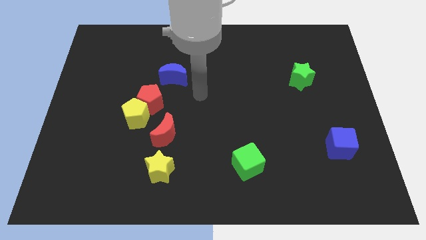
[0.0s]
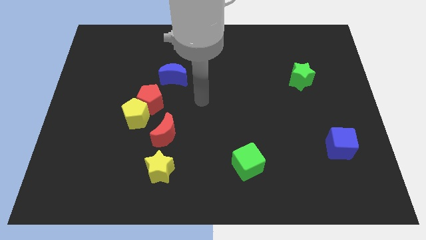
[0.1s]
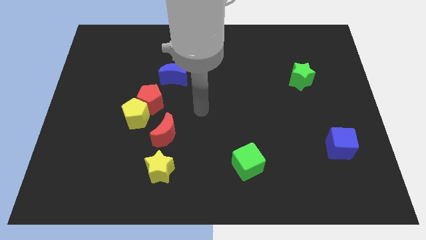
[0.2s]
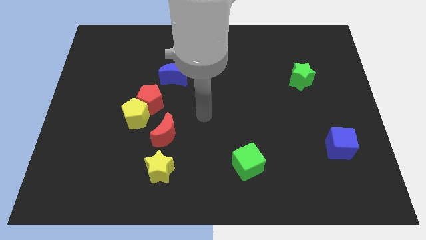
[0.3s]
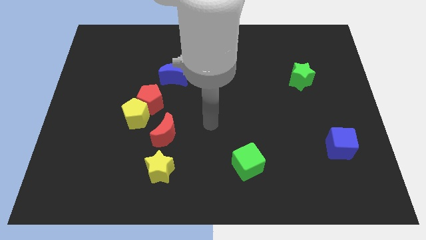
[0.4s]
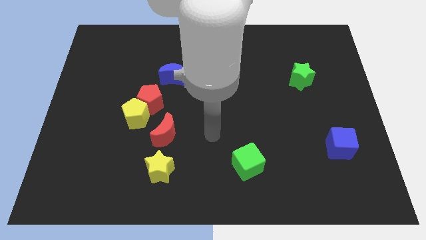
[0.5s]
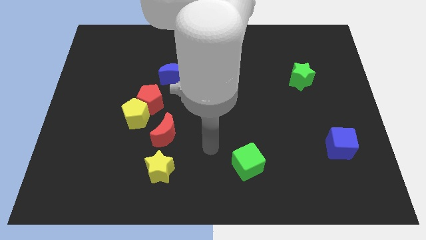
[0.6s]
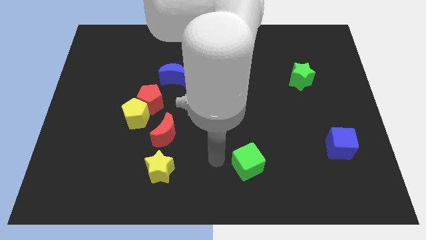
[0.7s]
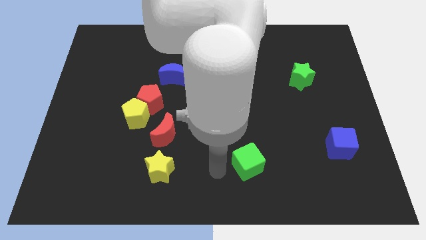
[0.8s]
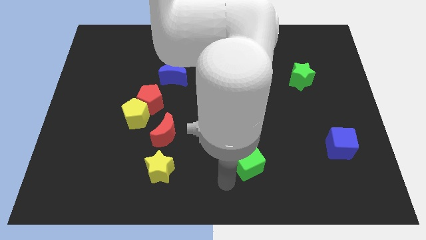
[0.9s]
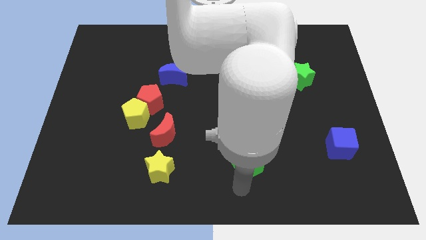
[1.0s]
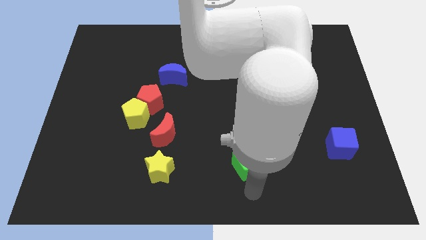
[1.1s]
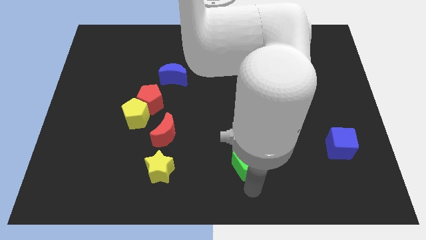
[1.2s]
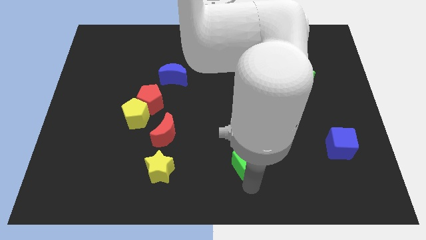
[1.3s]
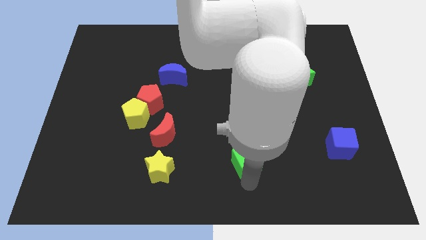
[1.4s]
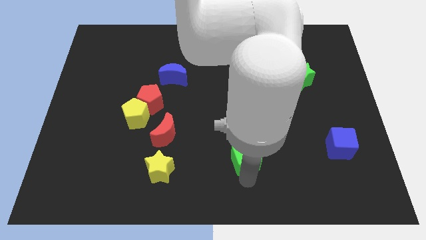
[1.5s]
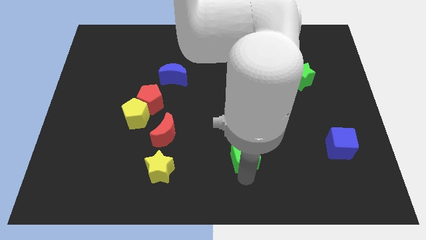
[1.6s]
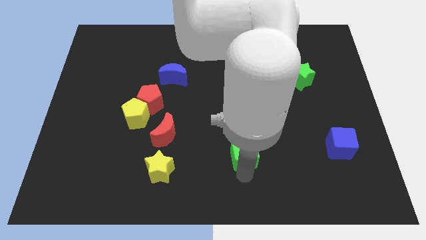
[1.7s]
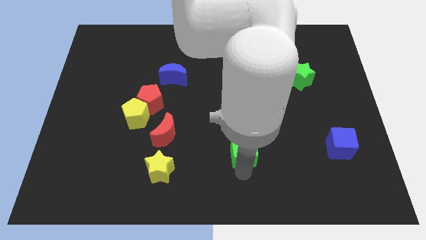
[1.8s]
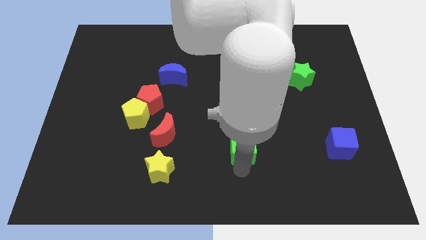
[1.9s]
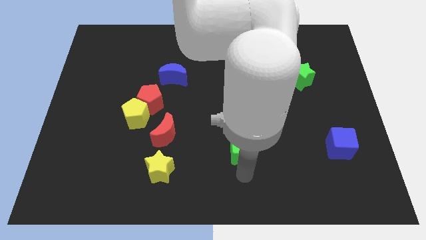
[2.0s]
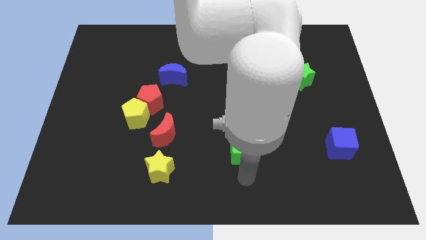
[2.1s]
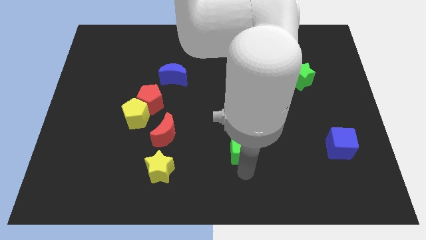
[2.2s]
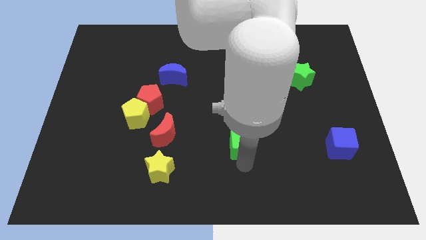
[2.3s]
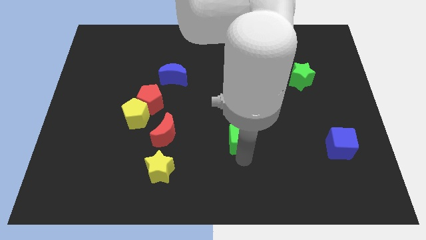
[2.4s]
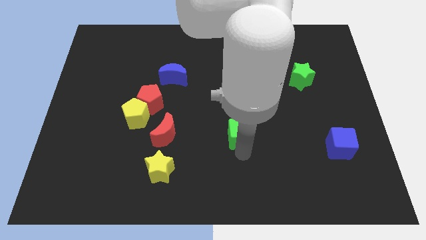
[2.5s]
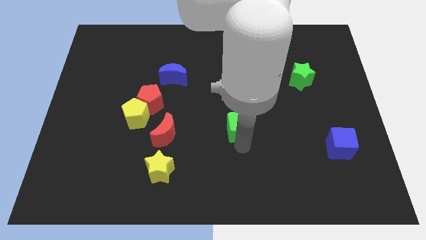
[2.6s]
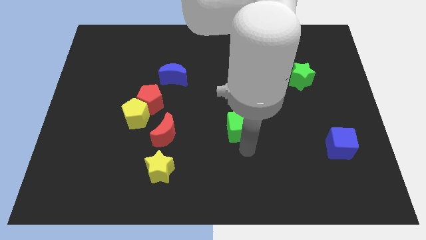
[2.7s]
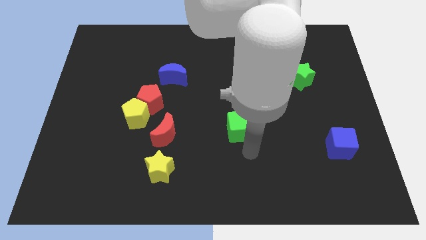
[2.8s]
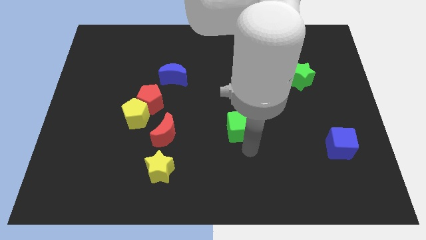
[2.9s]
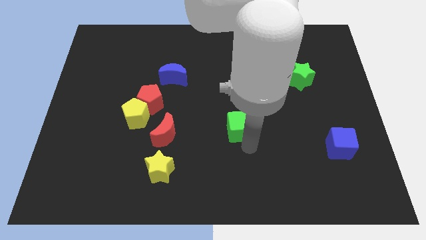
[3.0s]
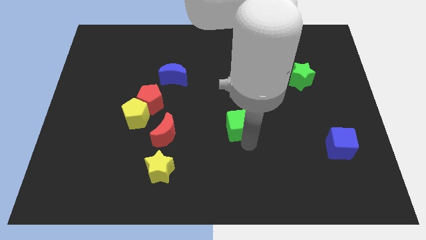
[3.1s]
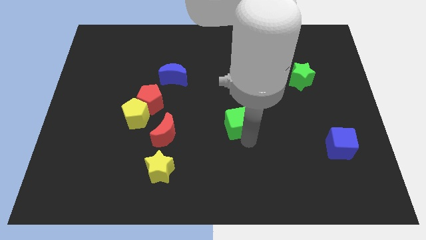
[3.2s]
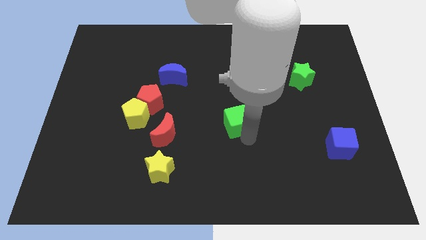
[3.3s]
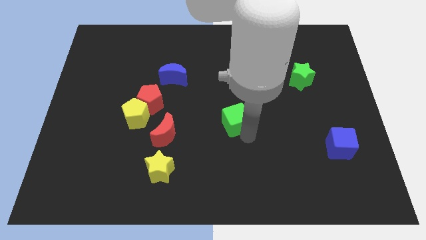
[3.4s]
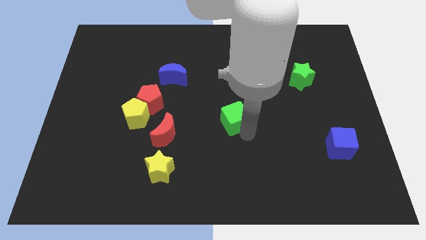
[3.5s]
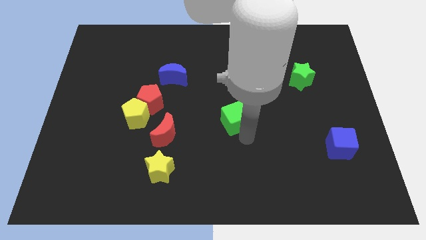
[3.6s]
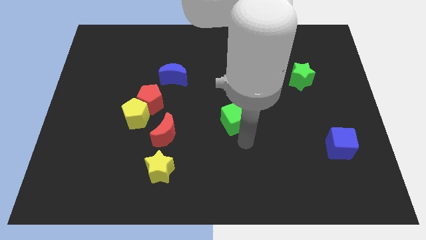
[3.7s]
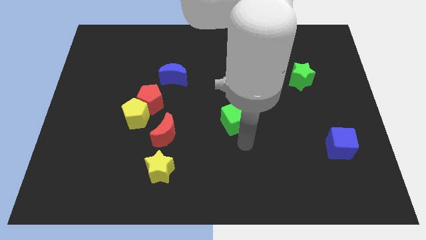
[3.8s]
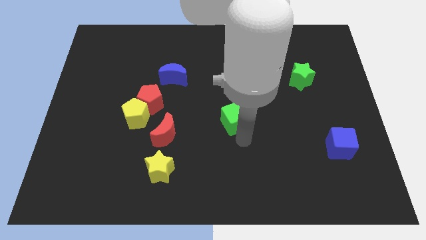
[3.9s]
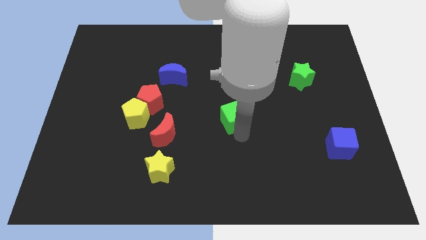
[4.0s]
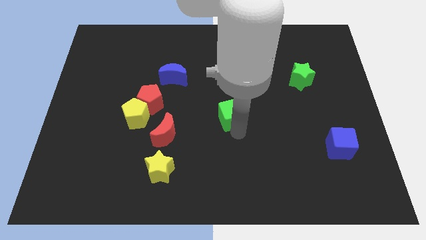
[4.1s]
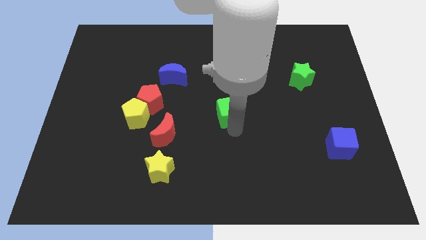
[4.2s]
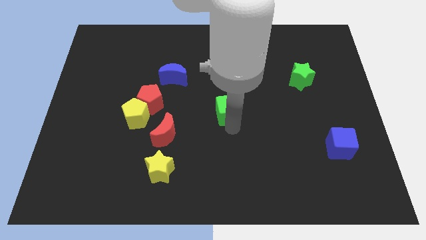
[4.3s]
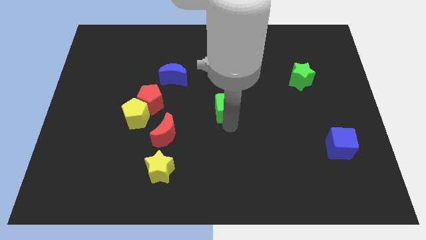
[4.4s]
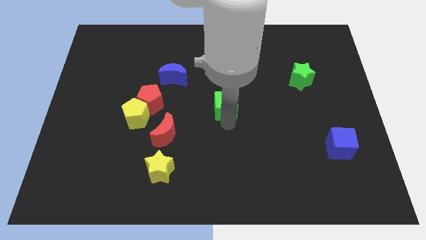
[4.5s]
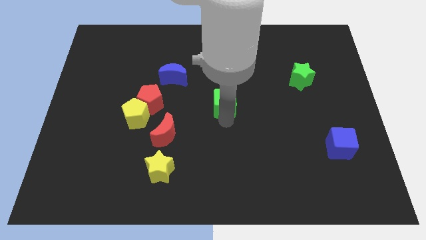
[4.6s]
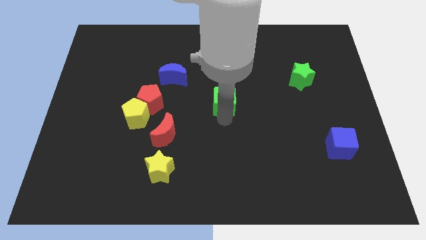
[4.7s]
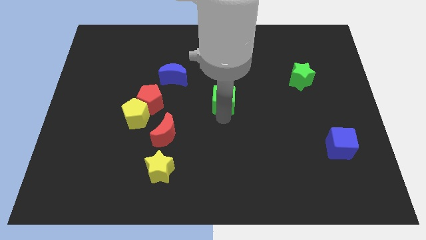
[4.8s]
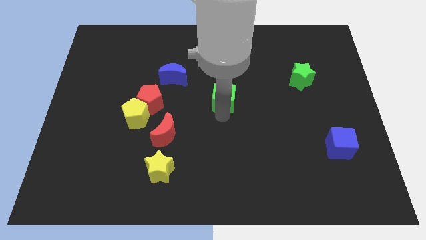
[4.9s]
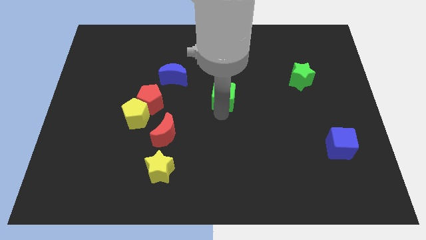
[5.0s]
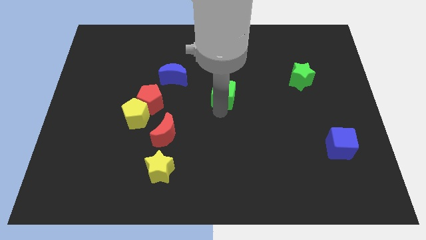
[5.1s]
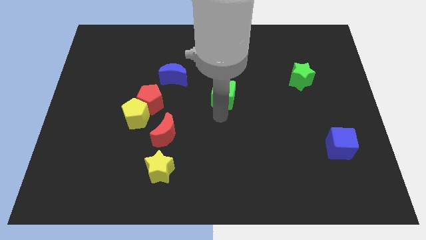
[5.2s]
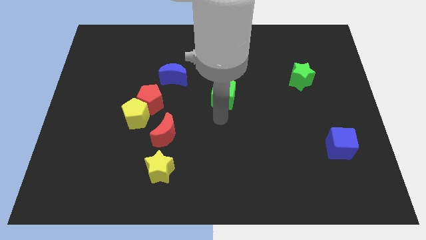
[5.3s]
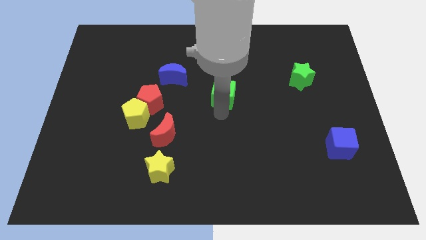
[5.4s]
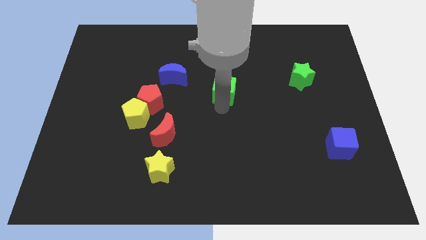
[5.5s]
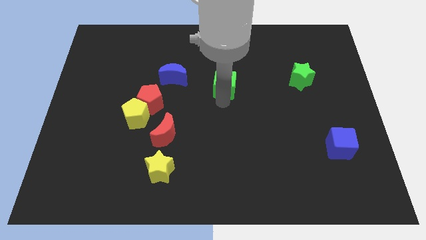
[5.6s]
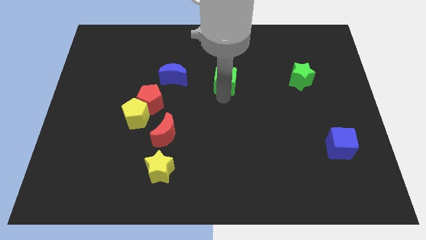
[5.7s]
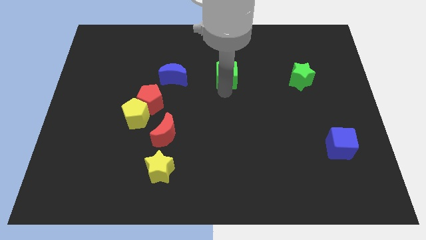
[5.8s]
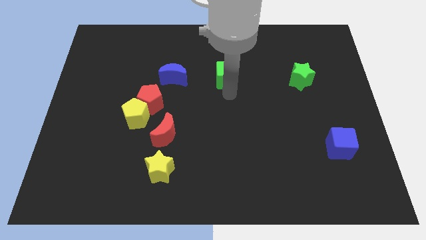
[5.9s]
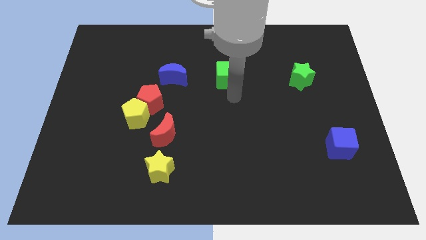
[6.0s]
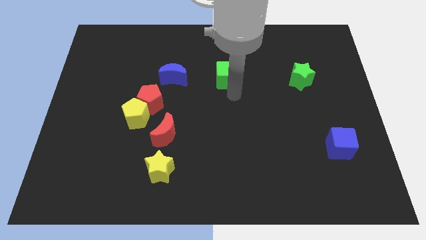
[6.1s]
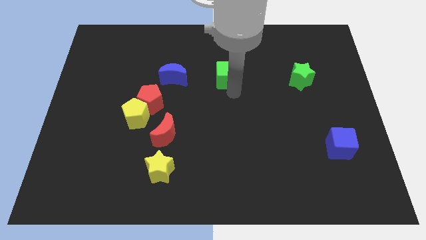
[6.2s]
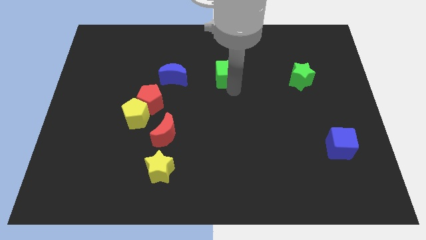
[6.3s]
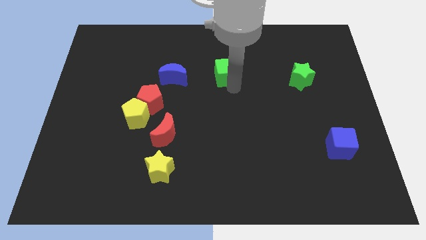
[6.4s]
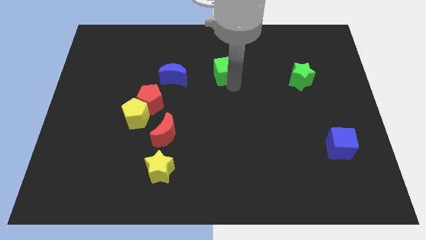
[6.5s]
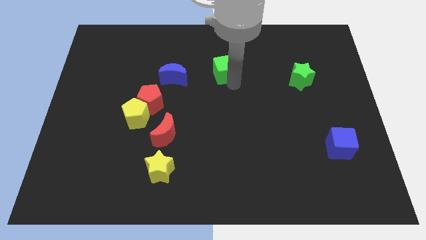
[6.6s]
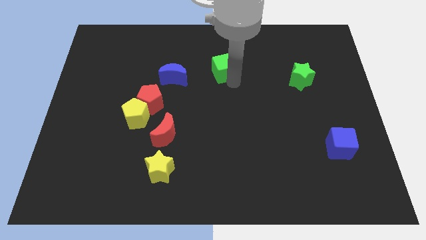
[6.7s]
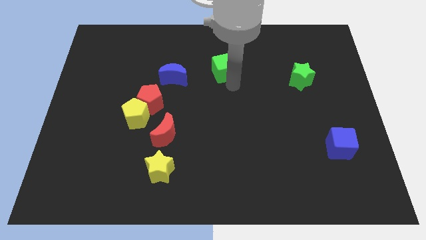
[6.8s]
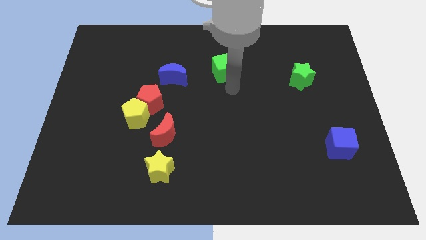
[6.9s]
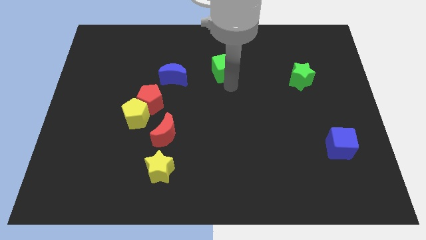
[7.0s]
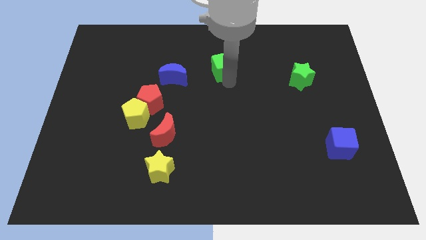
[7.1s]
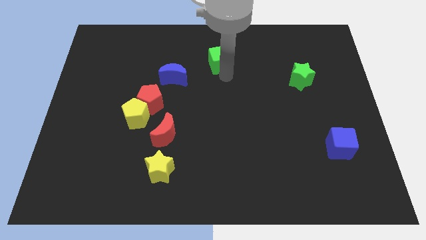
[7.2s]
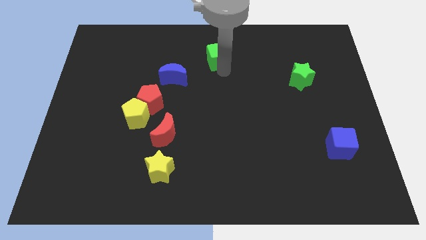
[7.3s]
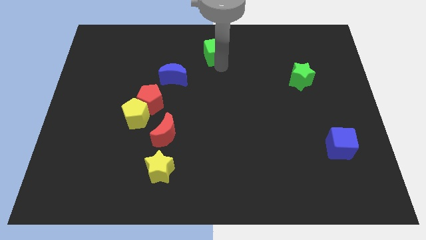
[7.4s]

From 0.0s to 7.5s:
put the green cube to the towards your base
